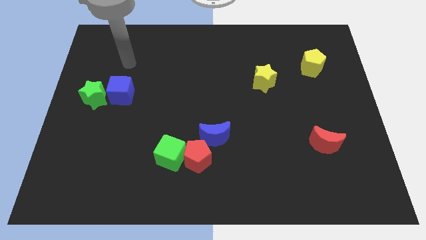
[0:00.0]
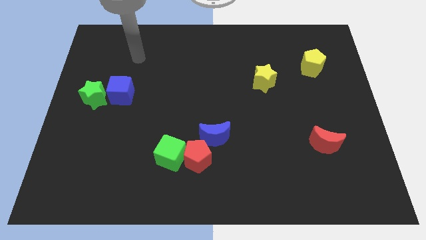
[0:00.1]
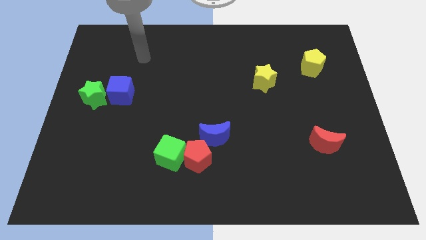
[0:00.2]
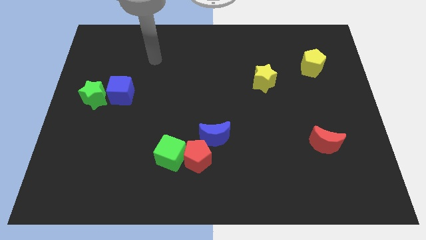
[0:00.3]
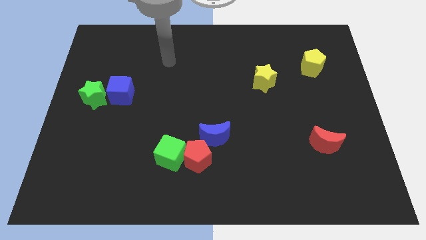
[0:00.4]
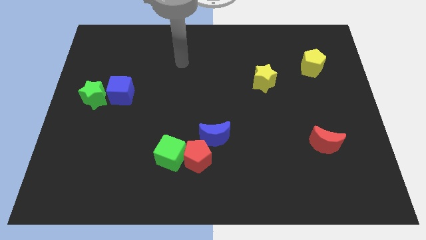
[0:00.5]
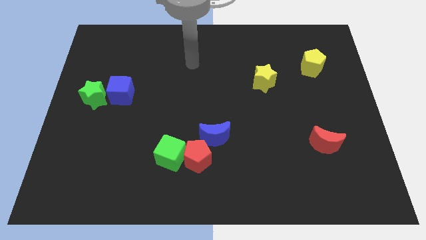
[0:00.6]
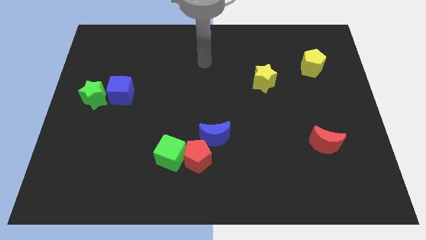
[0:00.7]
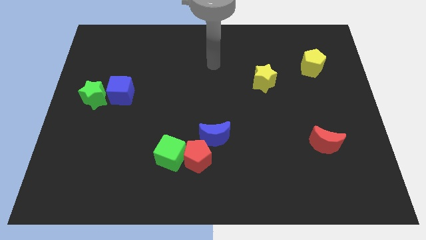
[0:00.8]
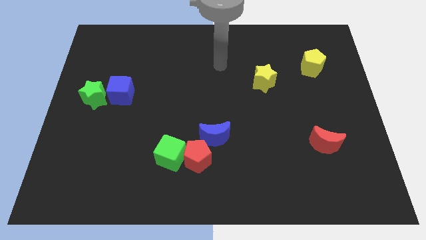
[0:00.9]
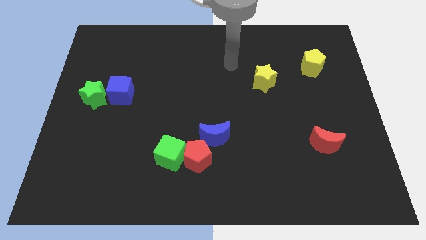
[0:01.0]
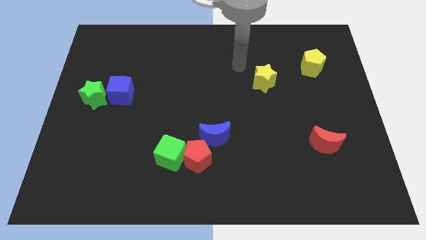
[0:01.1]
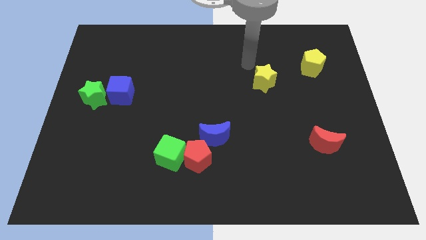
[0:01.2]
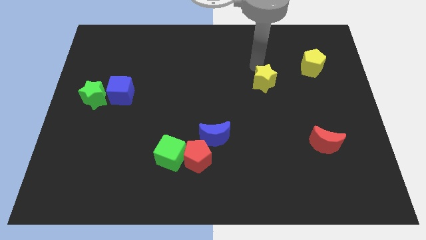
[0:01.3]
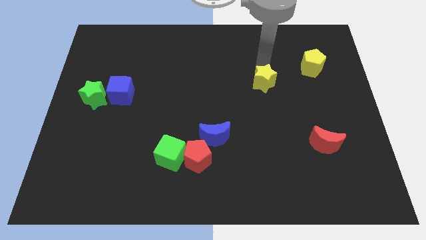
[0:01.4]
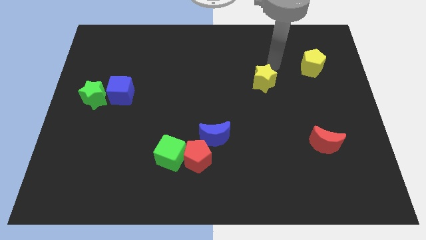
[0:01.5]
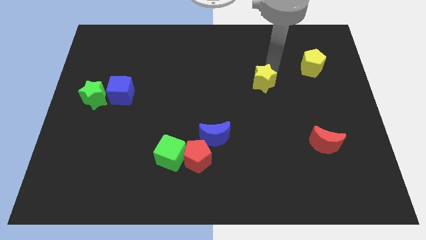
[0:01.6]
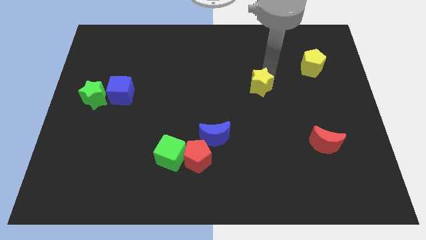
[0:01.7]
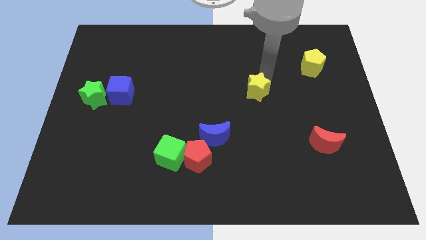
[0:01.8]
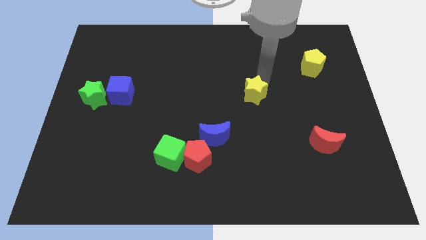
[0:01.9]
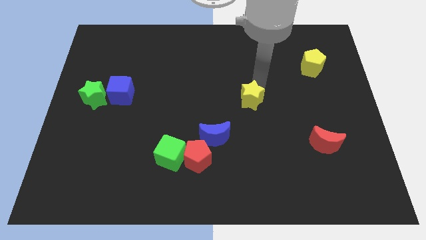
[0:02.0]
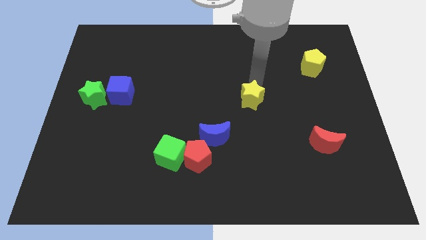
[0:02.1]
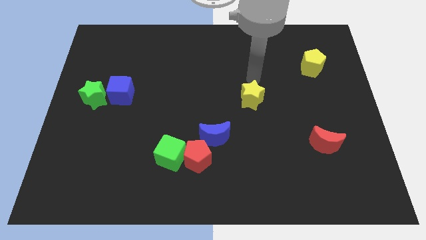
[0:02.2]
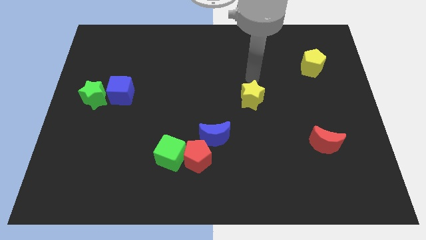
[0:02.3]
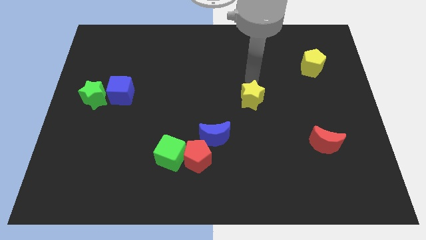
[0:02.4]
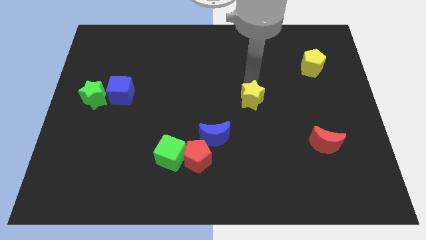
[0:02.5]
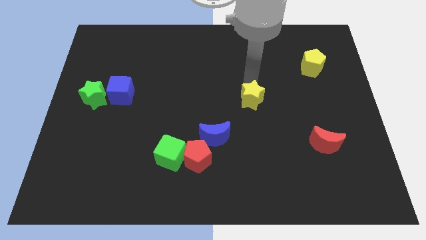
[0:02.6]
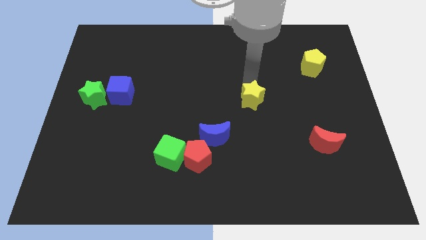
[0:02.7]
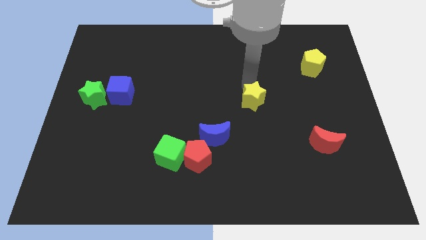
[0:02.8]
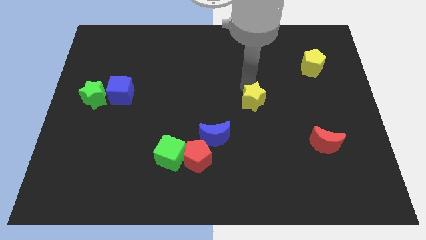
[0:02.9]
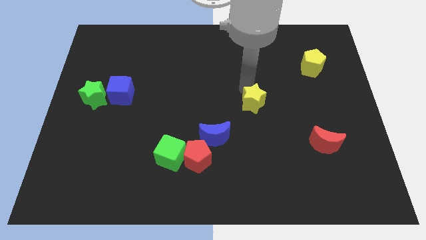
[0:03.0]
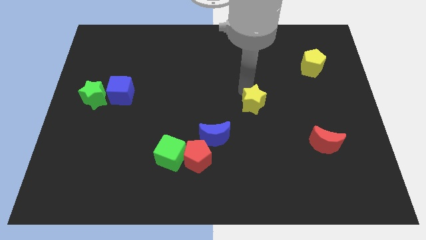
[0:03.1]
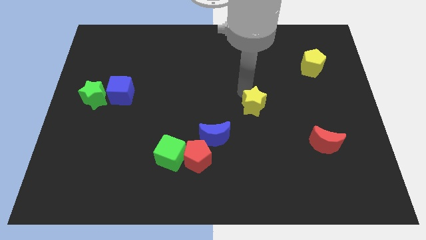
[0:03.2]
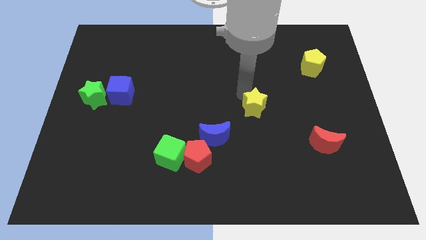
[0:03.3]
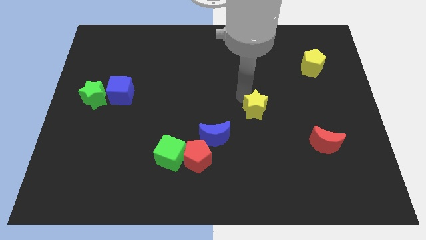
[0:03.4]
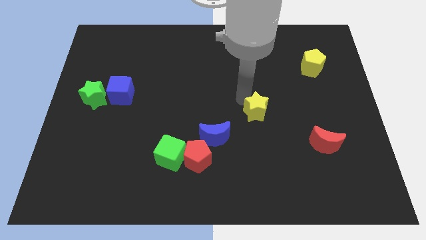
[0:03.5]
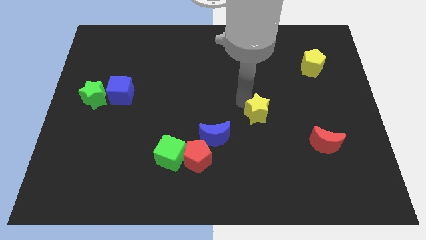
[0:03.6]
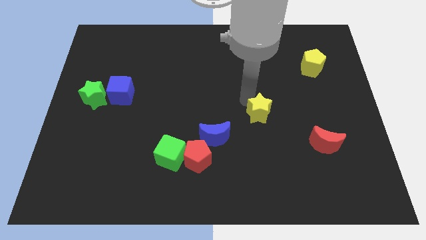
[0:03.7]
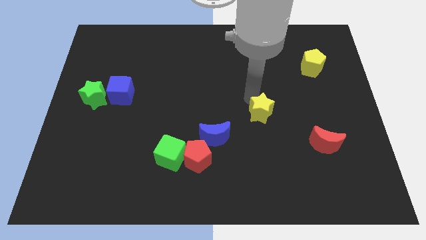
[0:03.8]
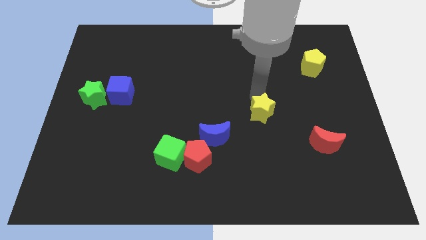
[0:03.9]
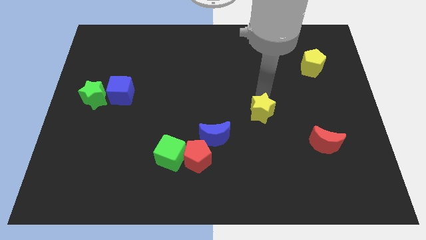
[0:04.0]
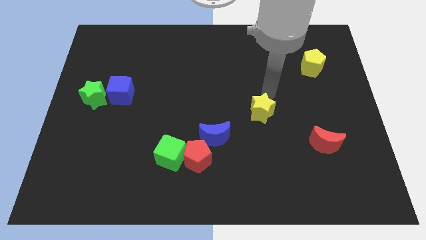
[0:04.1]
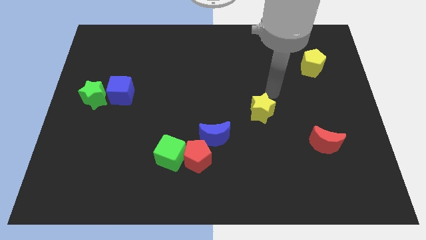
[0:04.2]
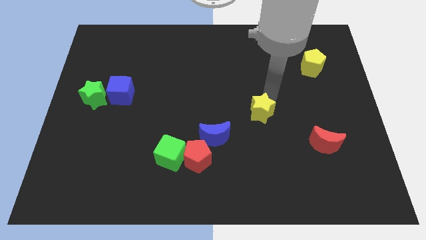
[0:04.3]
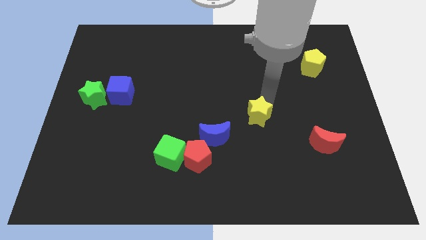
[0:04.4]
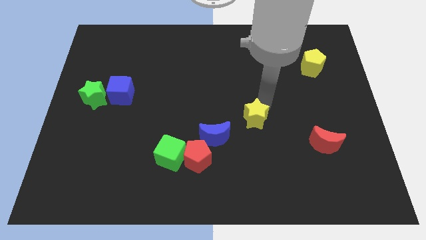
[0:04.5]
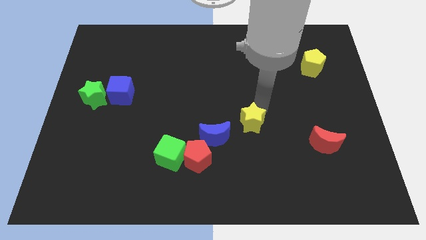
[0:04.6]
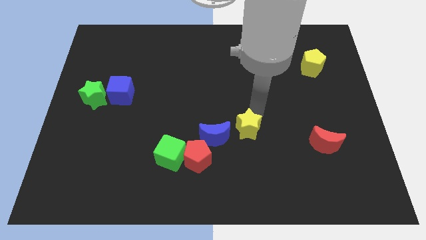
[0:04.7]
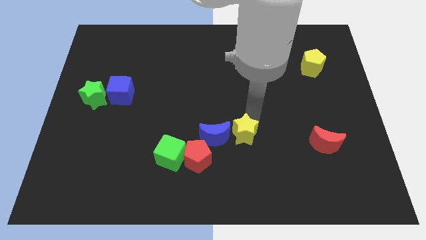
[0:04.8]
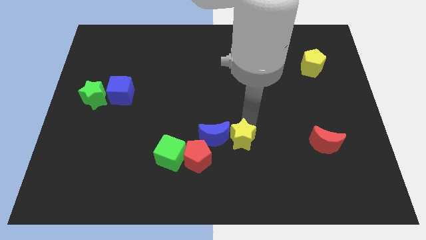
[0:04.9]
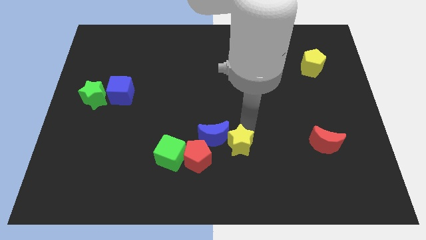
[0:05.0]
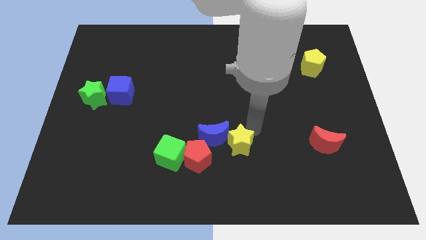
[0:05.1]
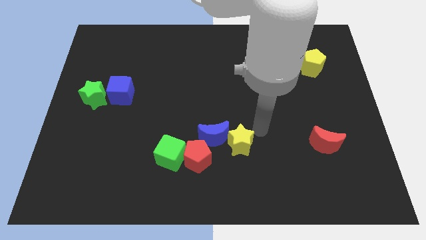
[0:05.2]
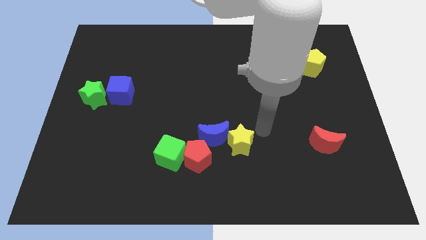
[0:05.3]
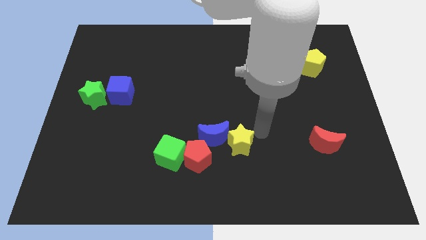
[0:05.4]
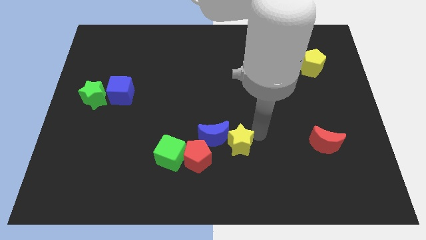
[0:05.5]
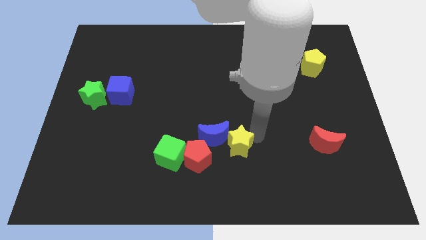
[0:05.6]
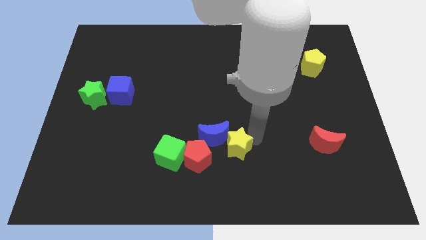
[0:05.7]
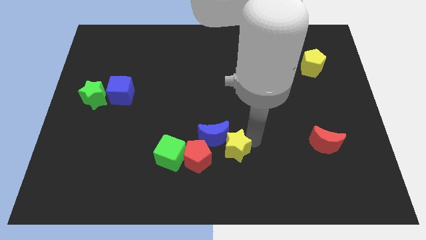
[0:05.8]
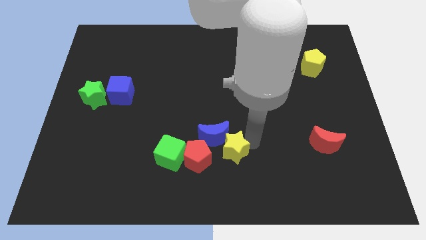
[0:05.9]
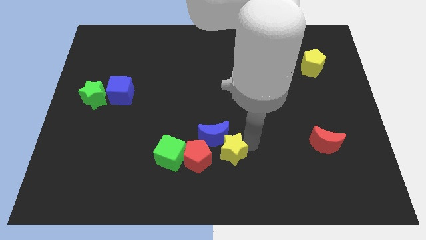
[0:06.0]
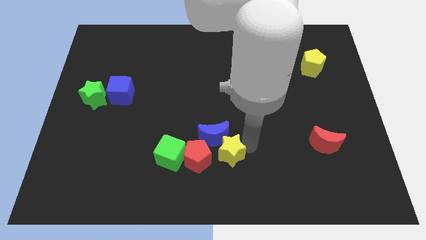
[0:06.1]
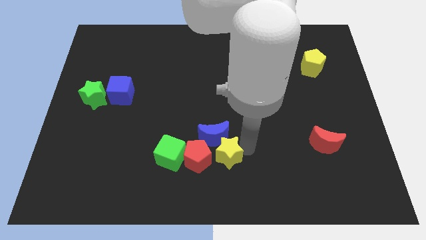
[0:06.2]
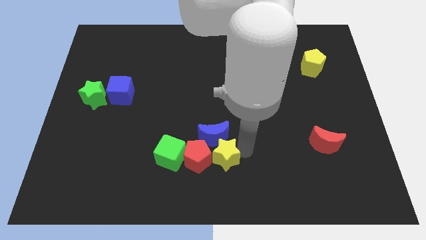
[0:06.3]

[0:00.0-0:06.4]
put the yellow star to the red pentagon

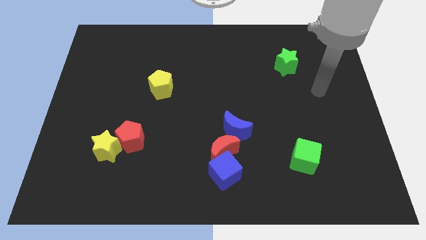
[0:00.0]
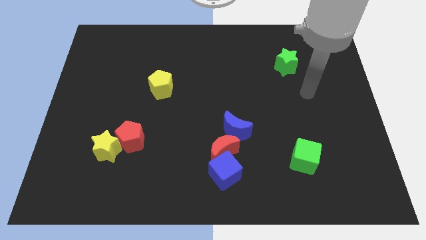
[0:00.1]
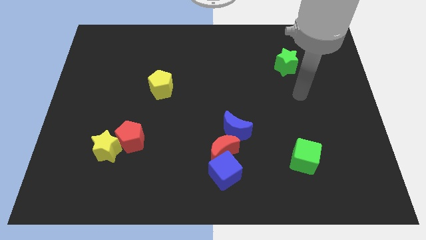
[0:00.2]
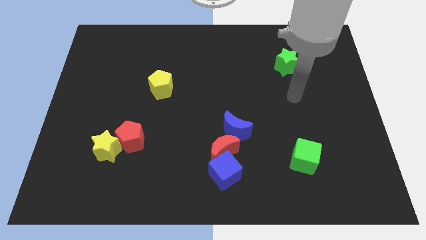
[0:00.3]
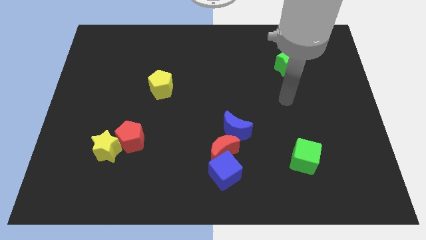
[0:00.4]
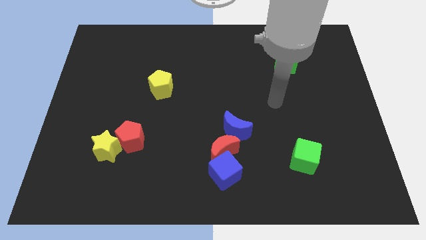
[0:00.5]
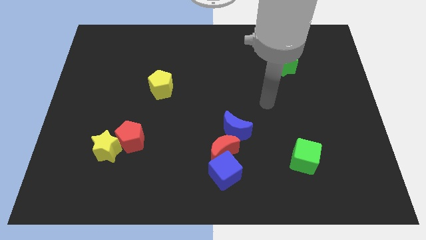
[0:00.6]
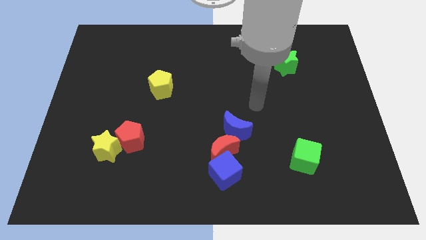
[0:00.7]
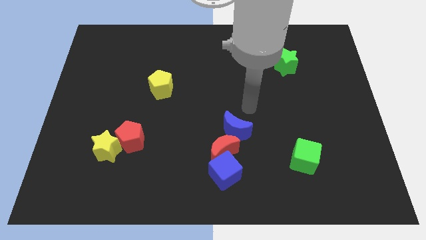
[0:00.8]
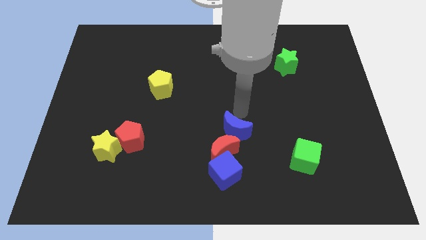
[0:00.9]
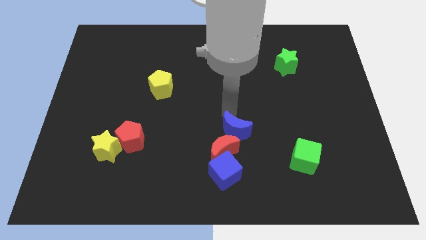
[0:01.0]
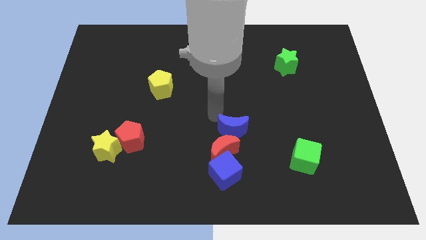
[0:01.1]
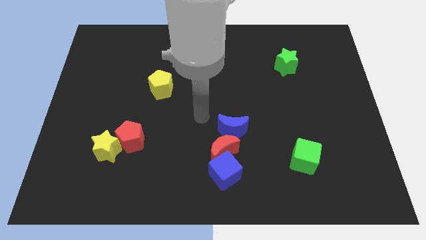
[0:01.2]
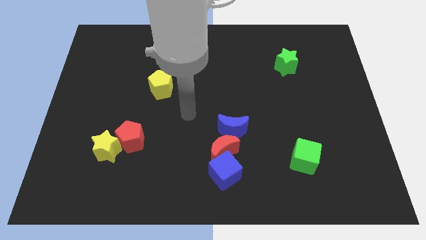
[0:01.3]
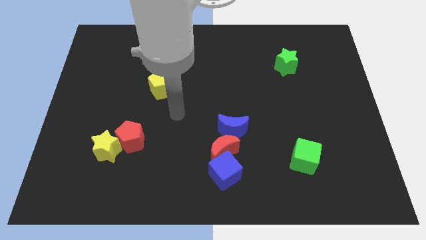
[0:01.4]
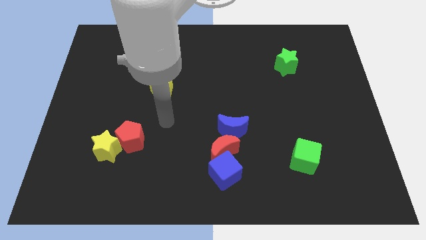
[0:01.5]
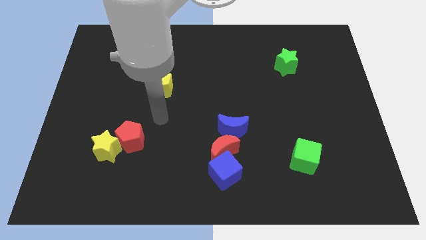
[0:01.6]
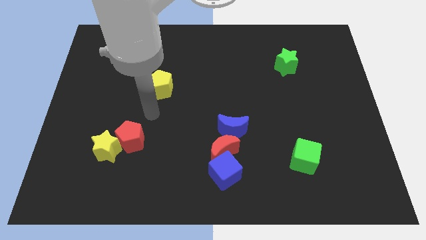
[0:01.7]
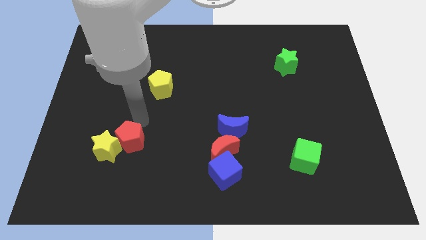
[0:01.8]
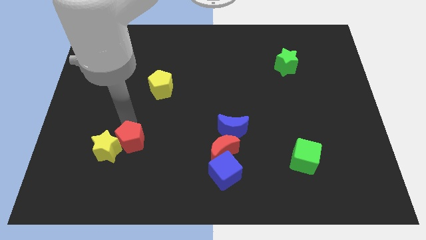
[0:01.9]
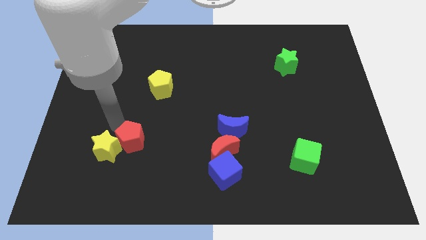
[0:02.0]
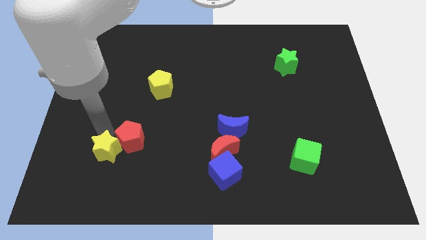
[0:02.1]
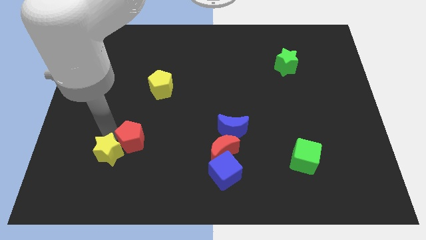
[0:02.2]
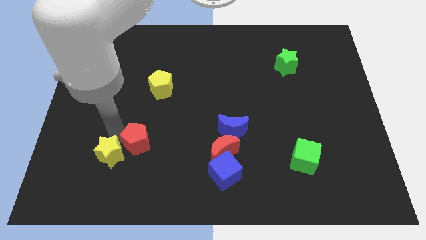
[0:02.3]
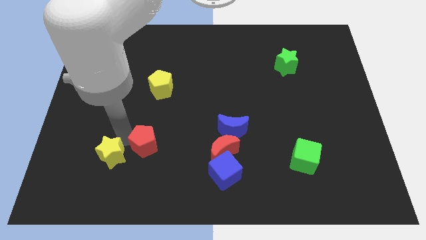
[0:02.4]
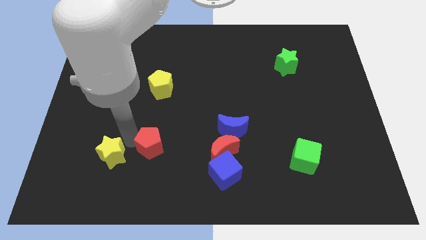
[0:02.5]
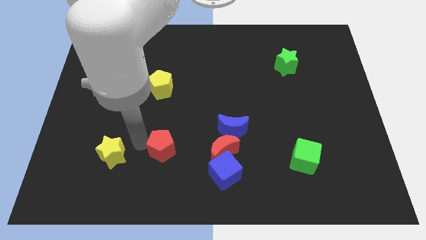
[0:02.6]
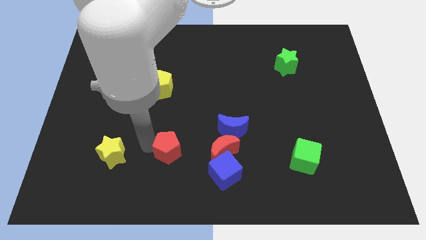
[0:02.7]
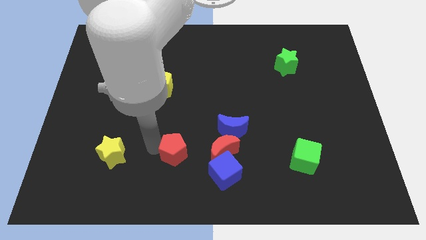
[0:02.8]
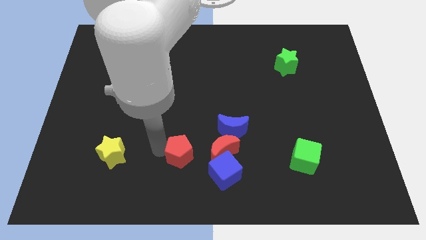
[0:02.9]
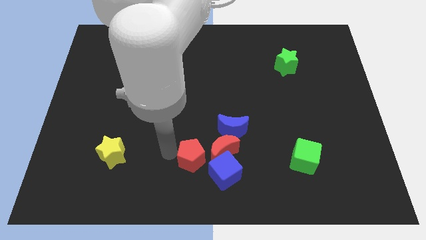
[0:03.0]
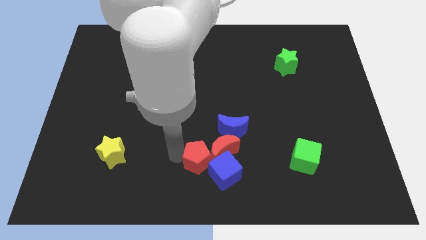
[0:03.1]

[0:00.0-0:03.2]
slide the red pentagon towards the red moon
